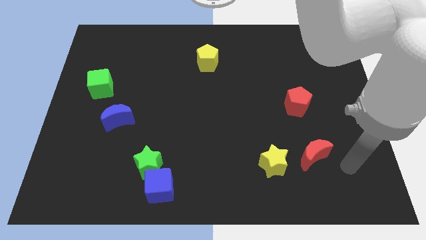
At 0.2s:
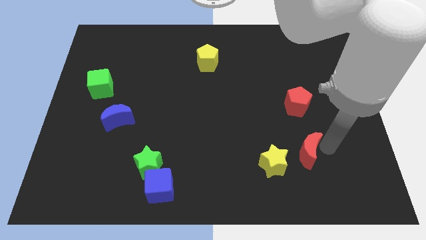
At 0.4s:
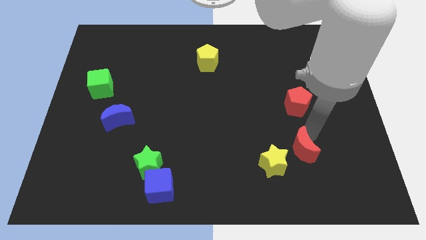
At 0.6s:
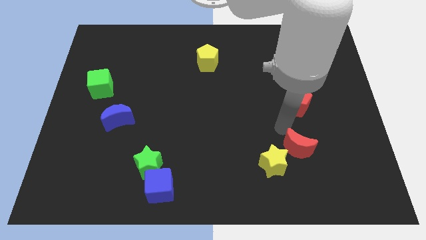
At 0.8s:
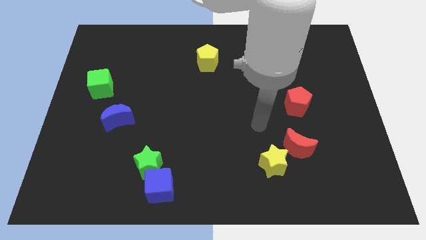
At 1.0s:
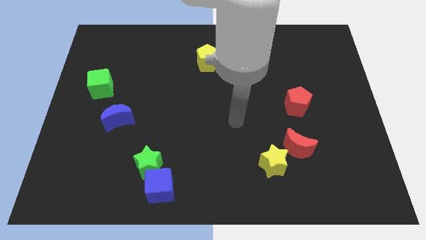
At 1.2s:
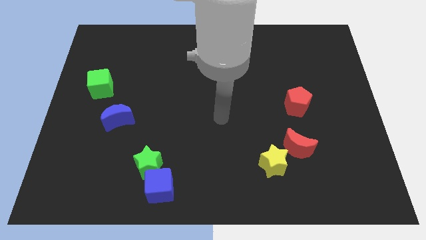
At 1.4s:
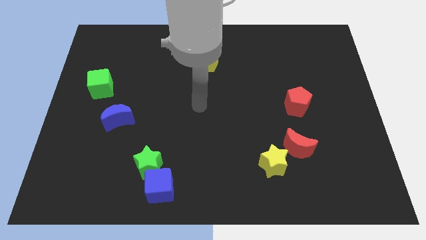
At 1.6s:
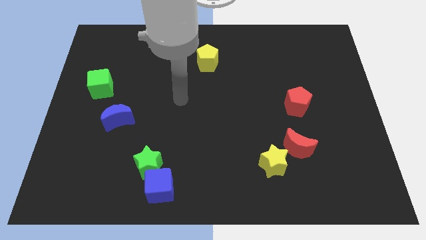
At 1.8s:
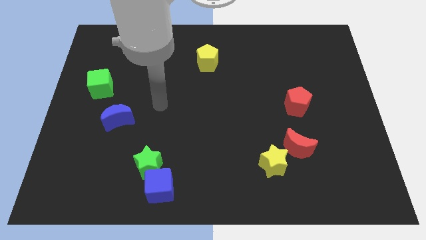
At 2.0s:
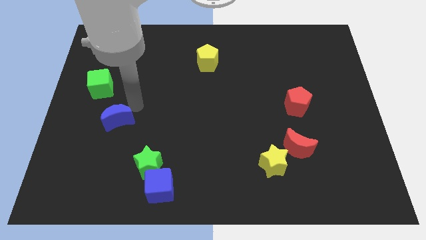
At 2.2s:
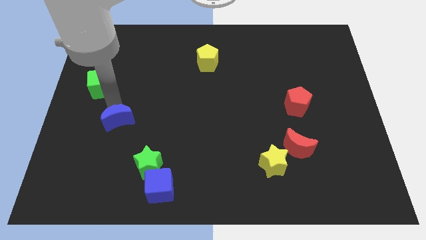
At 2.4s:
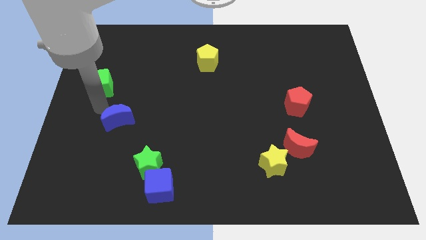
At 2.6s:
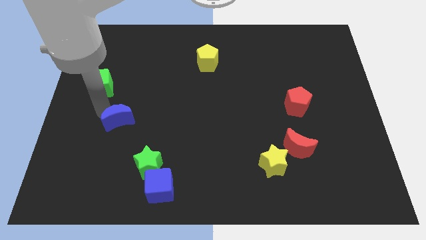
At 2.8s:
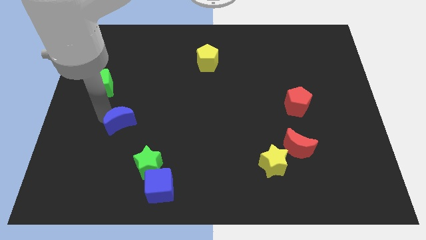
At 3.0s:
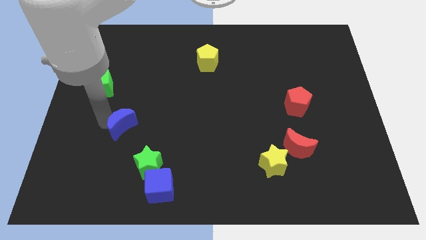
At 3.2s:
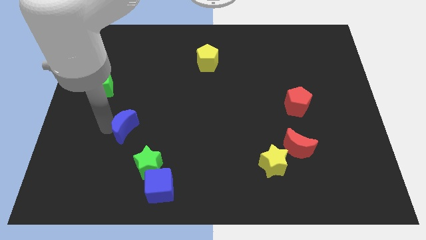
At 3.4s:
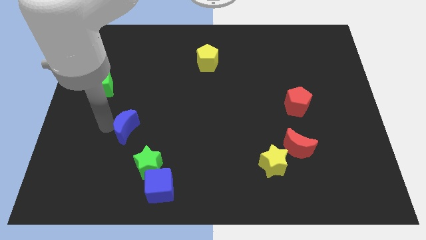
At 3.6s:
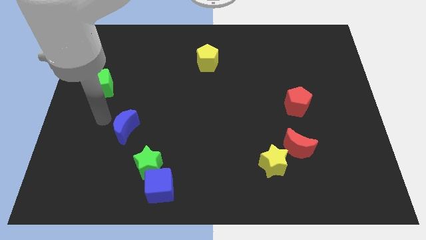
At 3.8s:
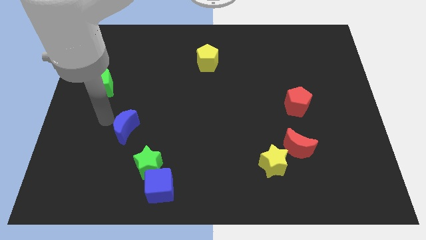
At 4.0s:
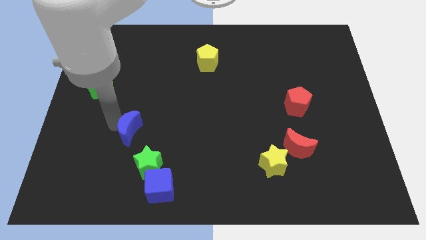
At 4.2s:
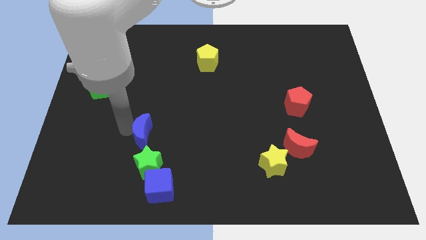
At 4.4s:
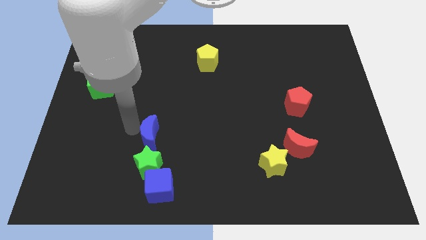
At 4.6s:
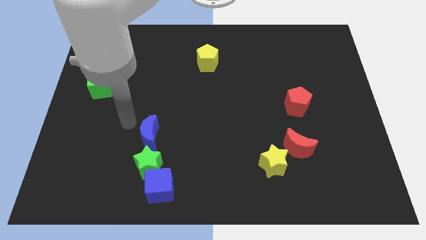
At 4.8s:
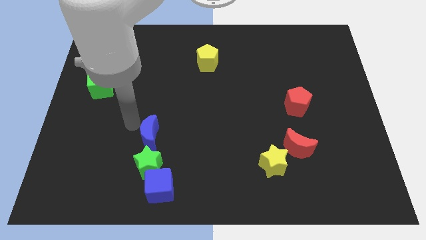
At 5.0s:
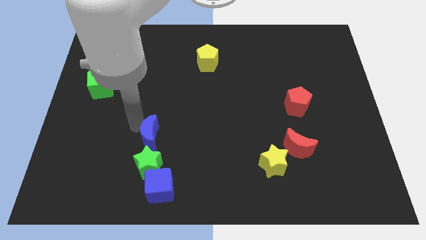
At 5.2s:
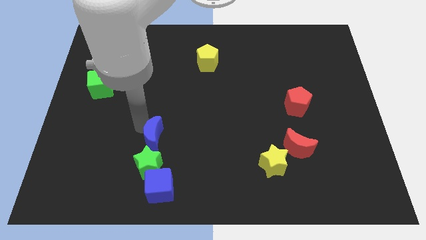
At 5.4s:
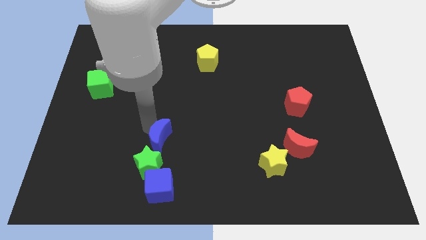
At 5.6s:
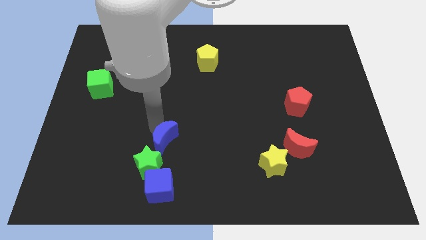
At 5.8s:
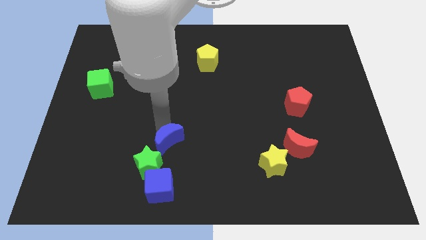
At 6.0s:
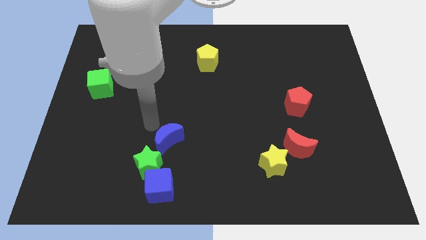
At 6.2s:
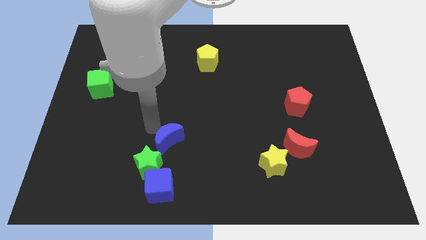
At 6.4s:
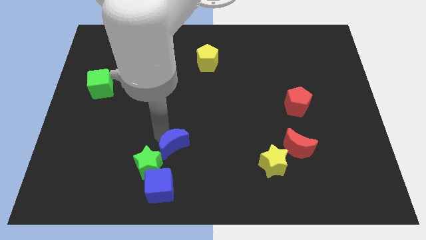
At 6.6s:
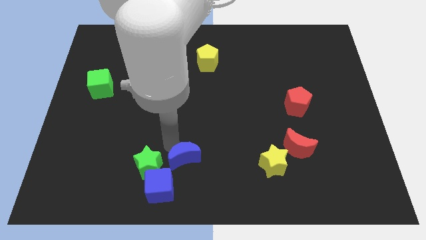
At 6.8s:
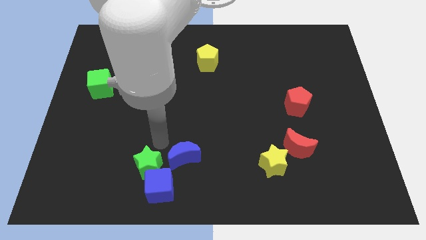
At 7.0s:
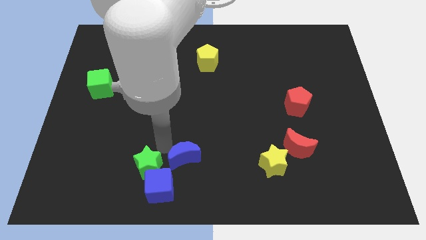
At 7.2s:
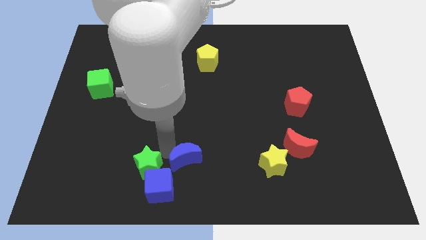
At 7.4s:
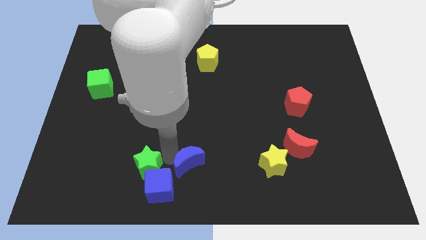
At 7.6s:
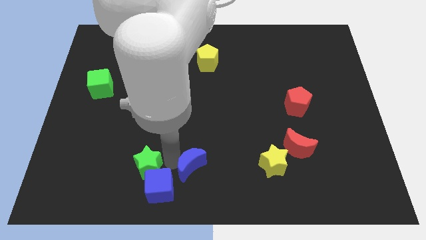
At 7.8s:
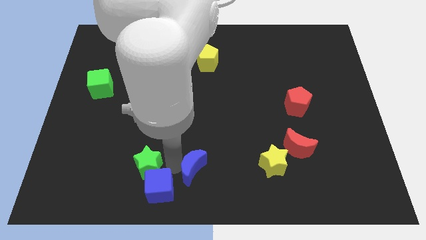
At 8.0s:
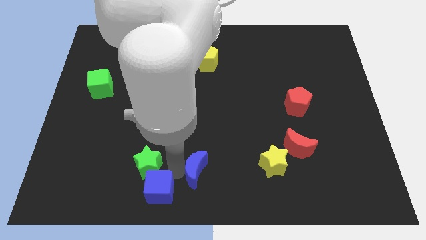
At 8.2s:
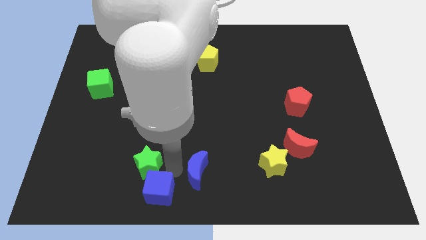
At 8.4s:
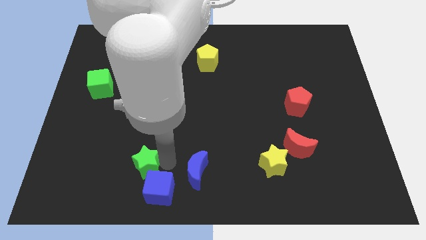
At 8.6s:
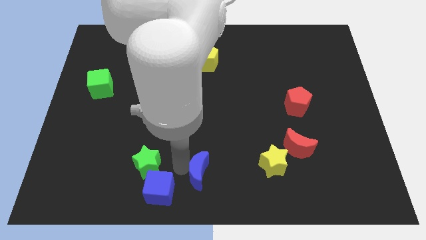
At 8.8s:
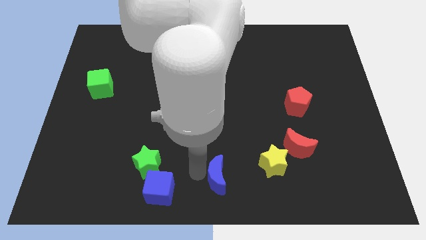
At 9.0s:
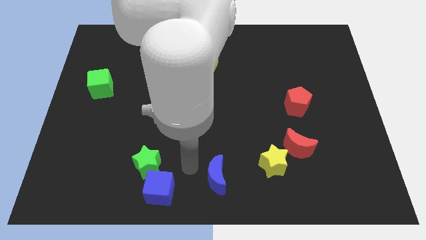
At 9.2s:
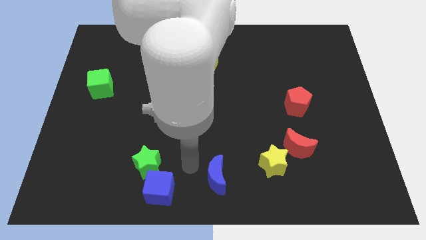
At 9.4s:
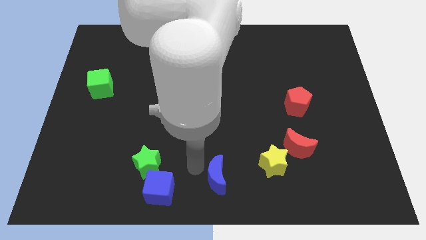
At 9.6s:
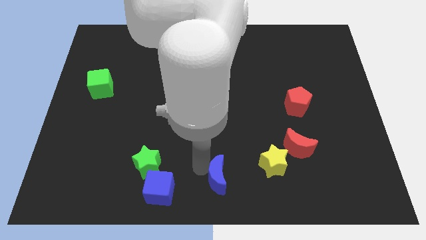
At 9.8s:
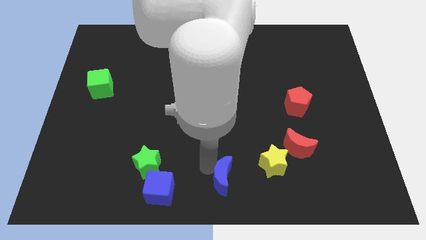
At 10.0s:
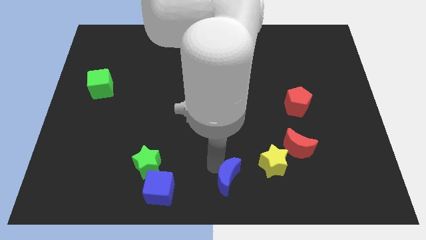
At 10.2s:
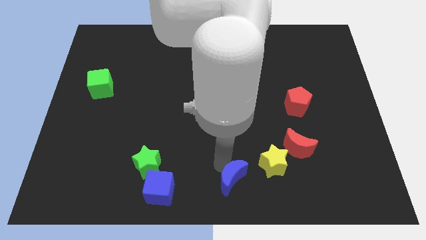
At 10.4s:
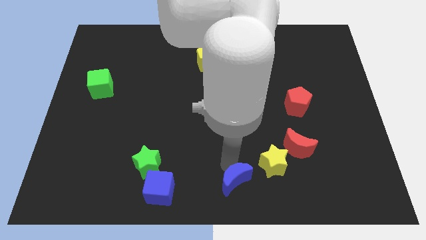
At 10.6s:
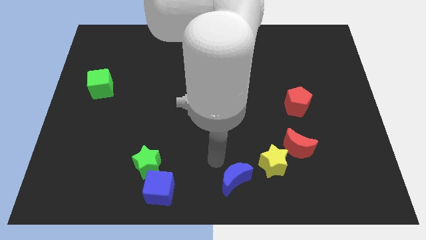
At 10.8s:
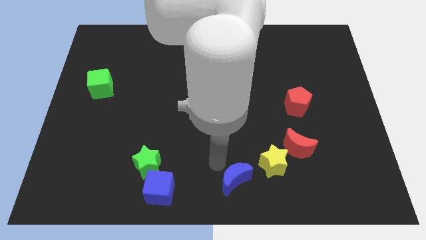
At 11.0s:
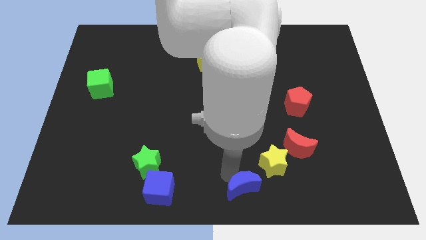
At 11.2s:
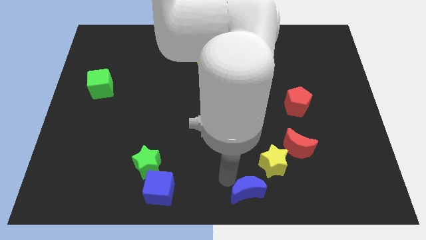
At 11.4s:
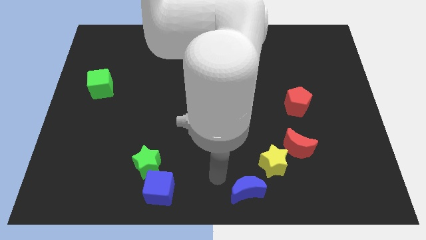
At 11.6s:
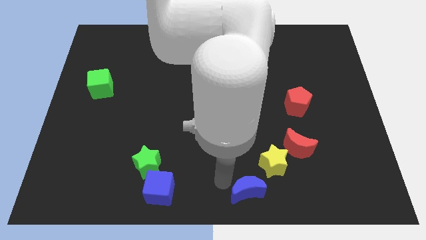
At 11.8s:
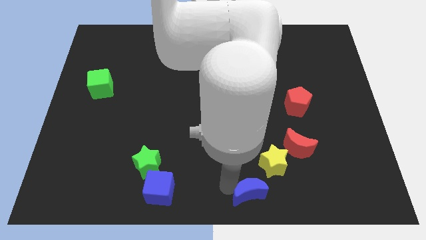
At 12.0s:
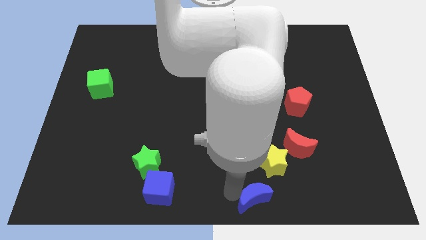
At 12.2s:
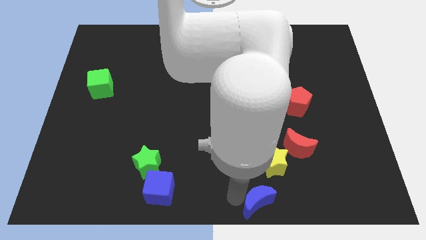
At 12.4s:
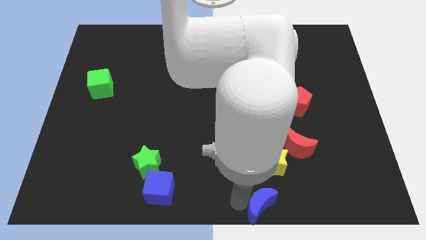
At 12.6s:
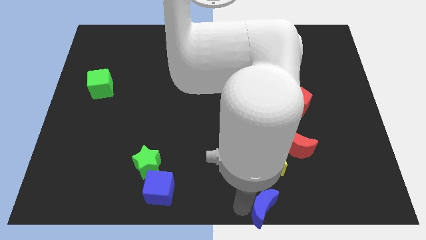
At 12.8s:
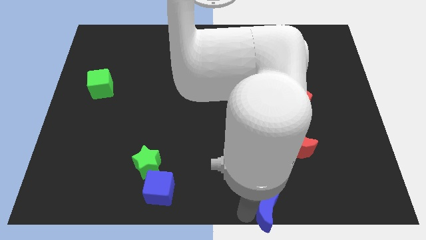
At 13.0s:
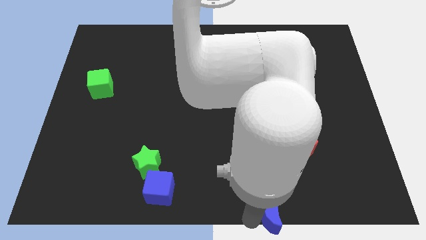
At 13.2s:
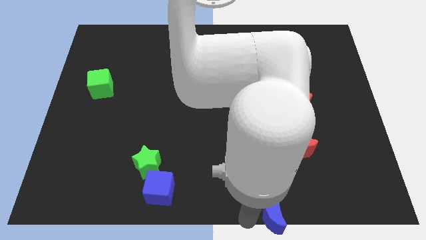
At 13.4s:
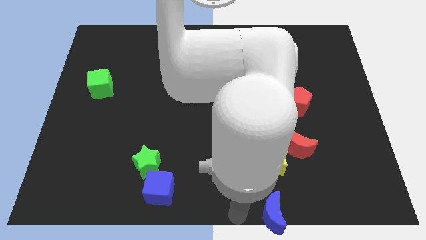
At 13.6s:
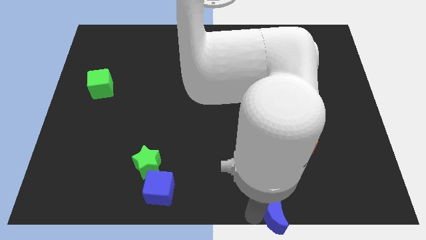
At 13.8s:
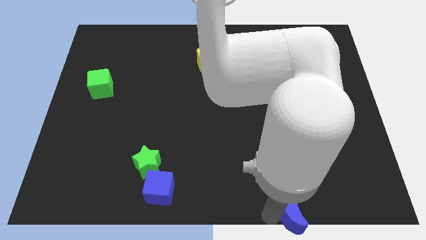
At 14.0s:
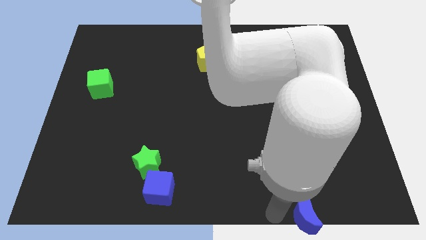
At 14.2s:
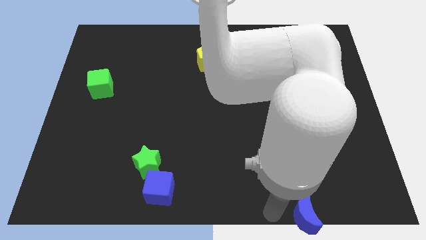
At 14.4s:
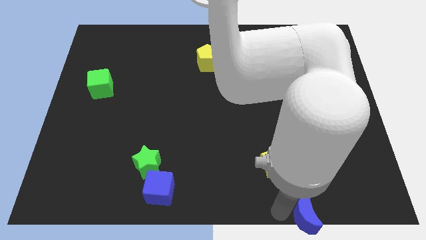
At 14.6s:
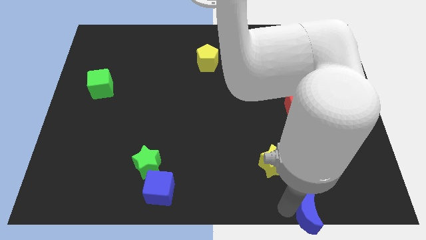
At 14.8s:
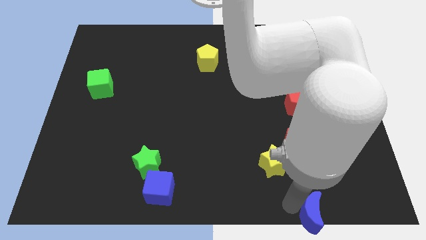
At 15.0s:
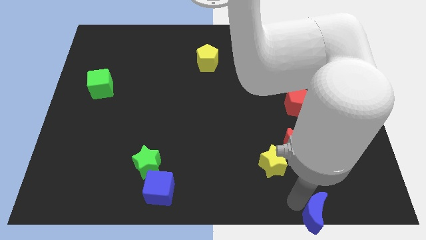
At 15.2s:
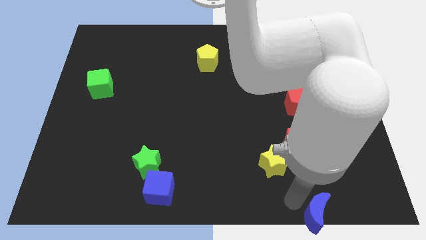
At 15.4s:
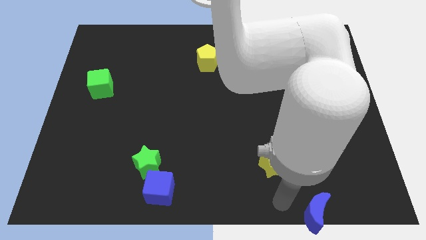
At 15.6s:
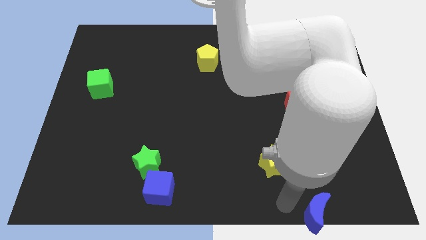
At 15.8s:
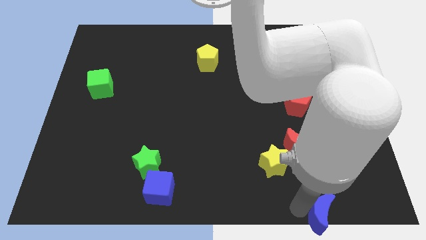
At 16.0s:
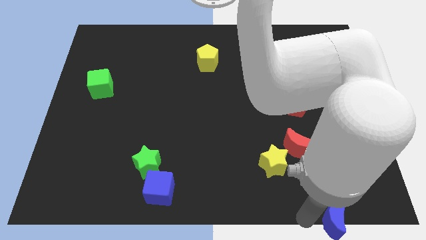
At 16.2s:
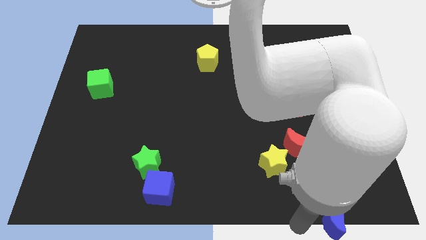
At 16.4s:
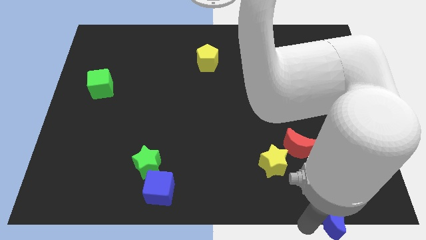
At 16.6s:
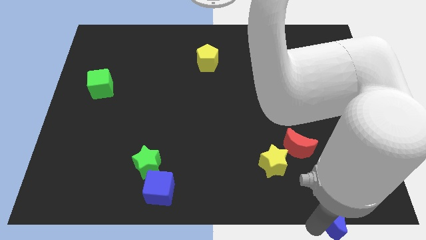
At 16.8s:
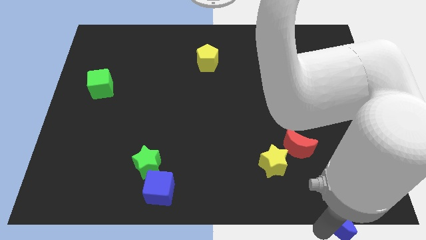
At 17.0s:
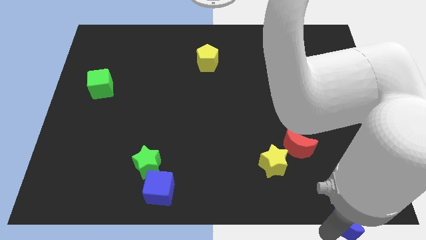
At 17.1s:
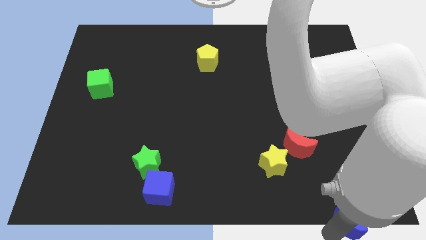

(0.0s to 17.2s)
move the blue moon to the bottom right of the board
